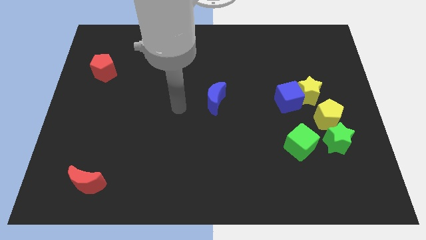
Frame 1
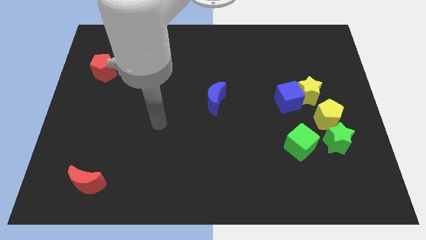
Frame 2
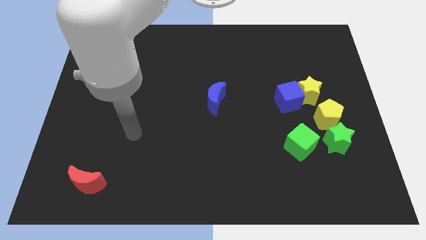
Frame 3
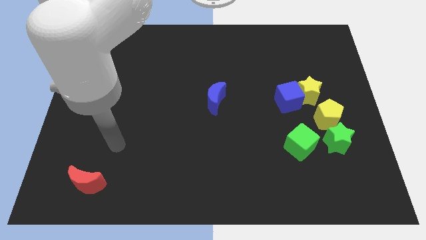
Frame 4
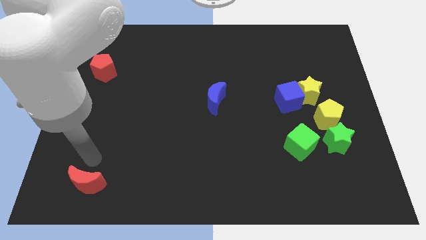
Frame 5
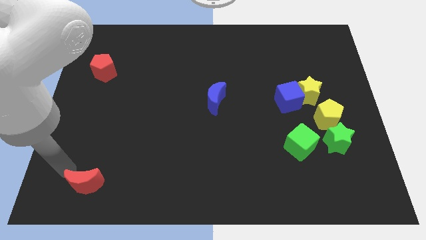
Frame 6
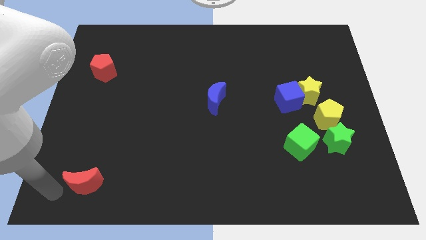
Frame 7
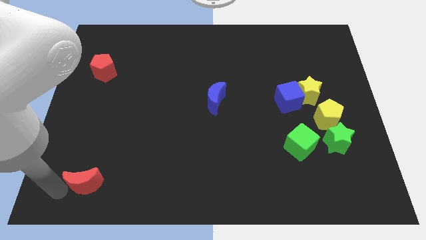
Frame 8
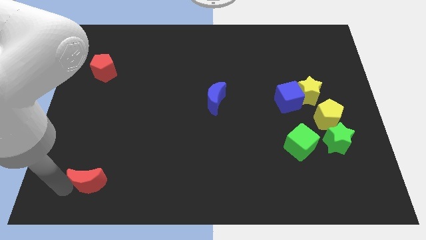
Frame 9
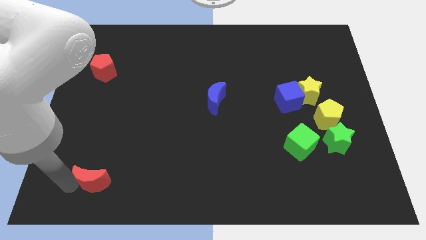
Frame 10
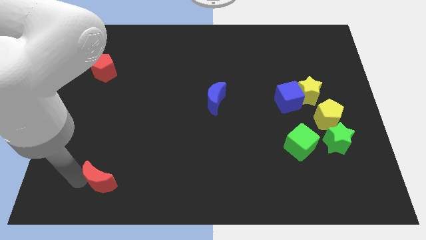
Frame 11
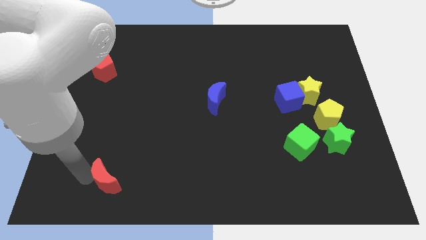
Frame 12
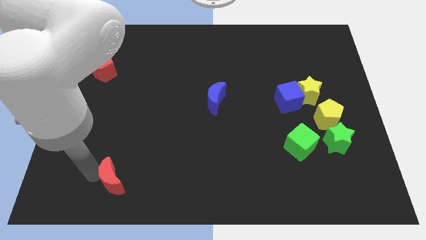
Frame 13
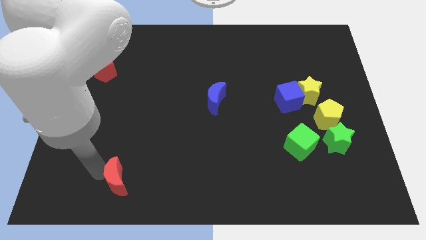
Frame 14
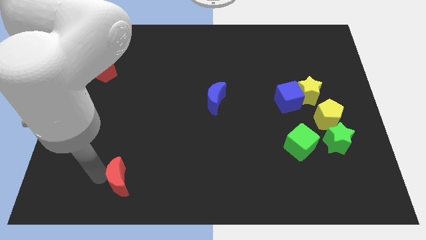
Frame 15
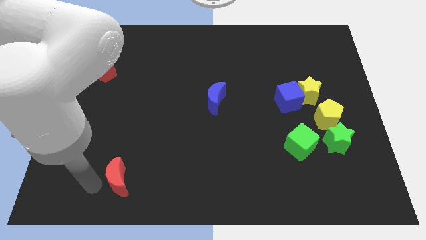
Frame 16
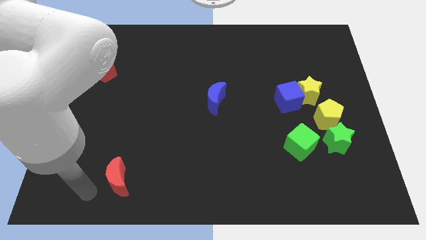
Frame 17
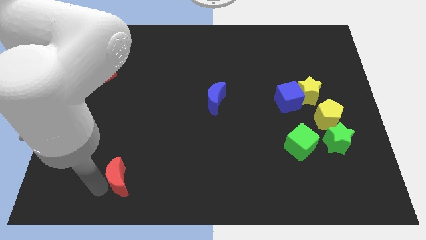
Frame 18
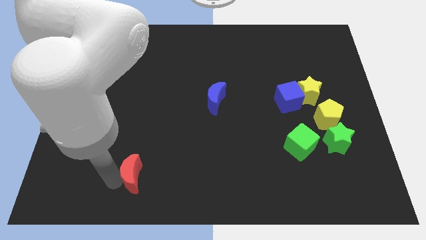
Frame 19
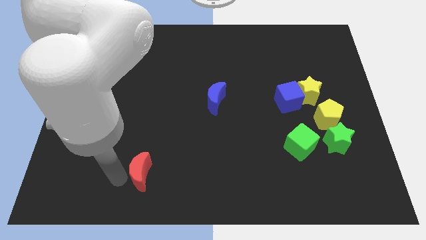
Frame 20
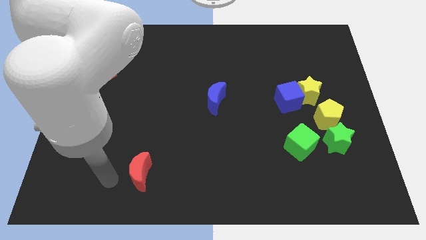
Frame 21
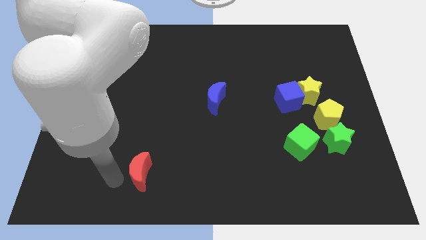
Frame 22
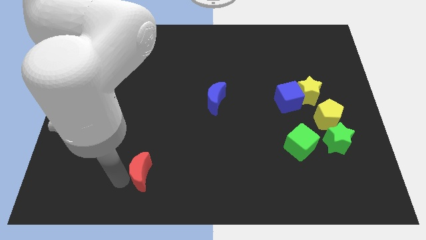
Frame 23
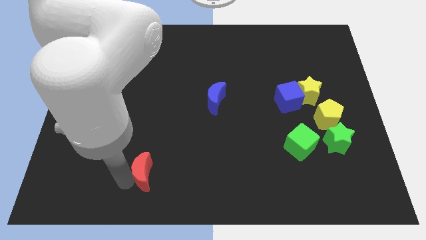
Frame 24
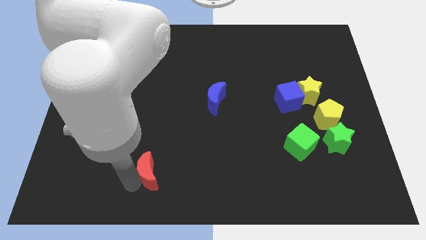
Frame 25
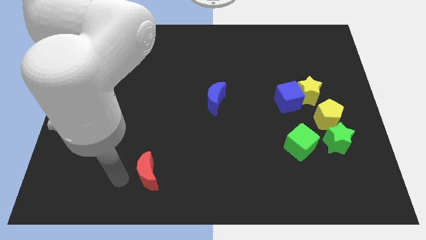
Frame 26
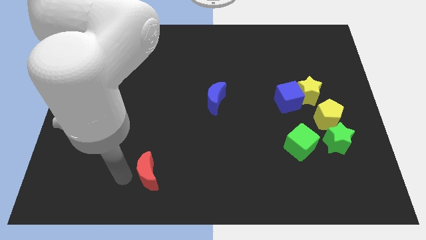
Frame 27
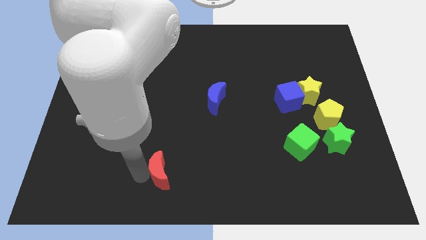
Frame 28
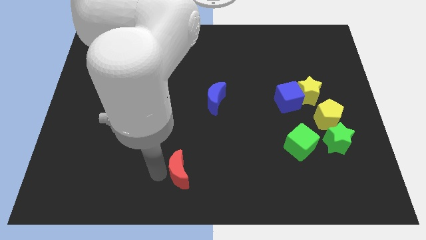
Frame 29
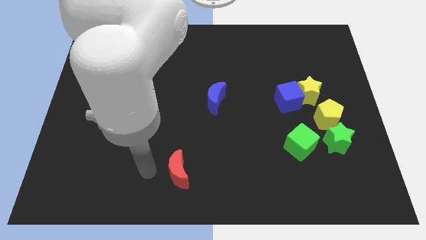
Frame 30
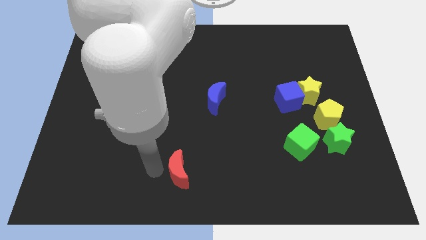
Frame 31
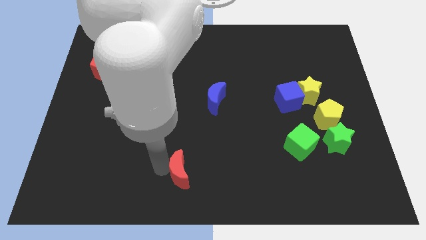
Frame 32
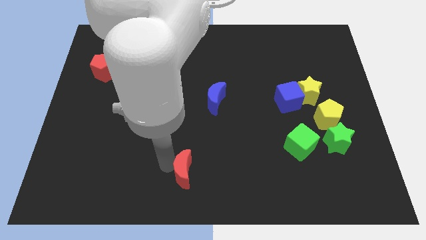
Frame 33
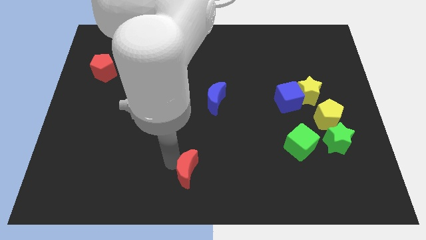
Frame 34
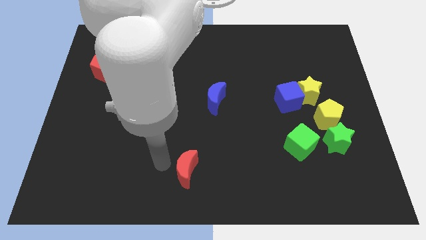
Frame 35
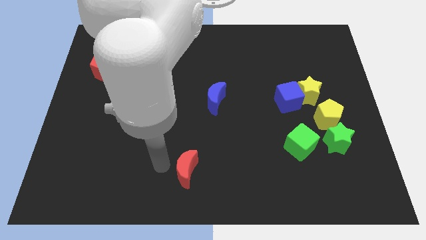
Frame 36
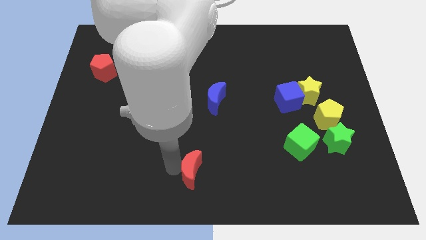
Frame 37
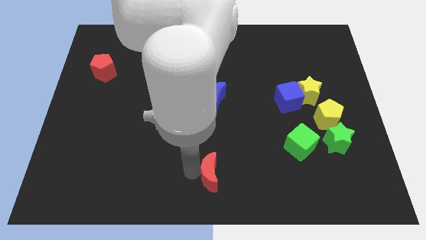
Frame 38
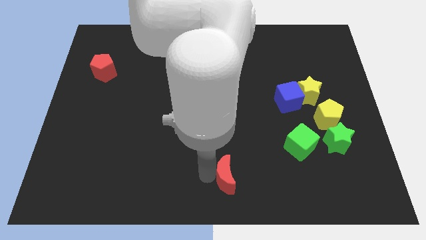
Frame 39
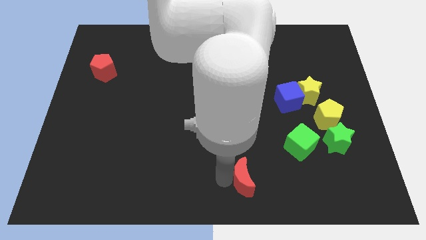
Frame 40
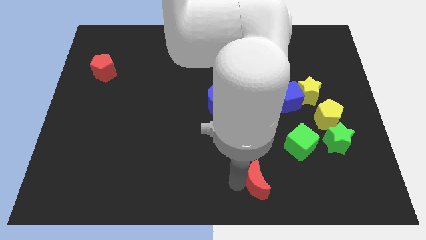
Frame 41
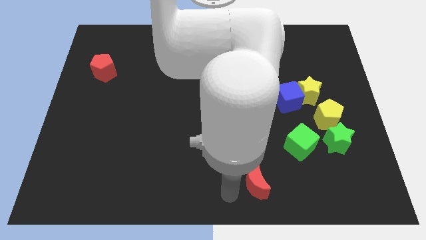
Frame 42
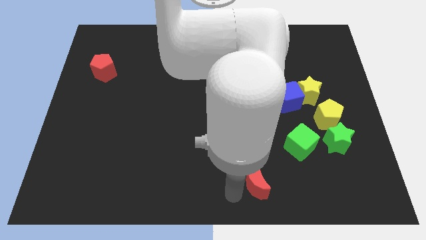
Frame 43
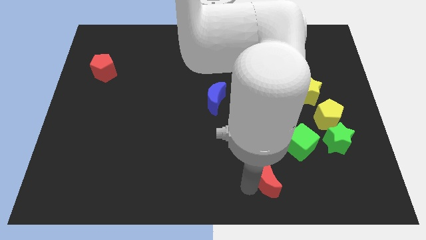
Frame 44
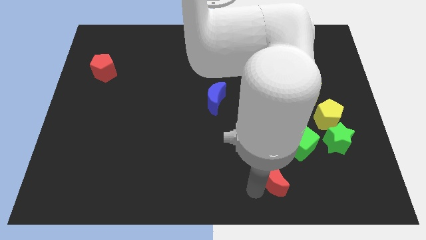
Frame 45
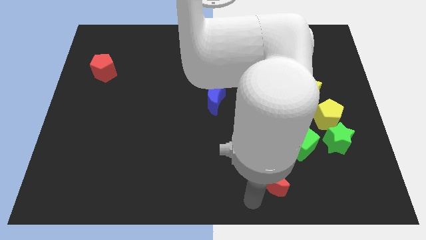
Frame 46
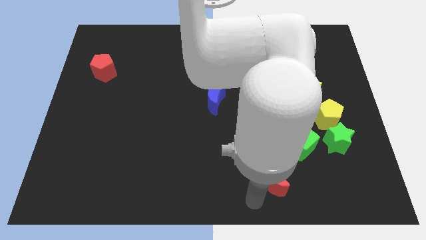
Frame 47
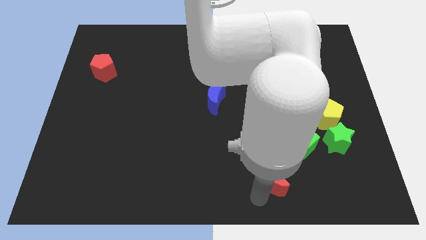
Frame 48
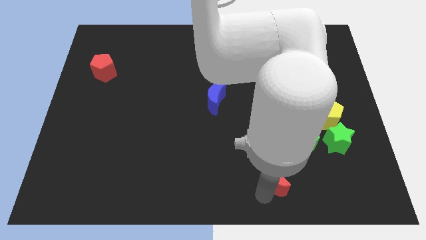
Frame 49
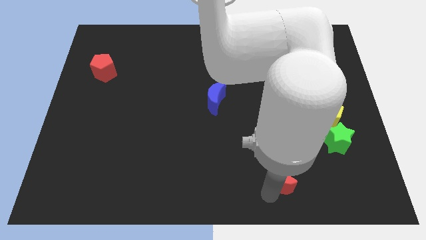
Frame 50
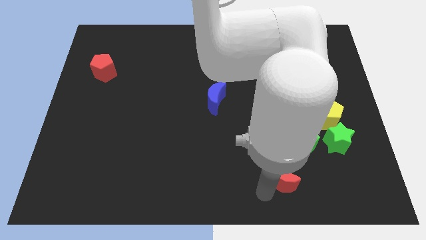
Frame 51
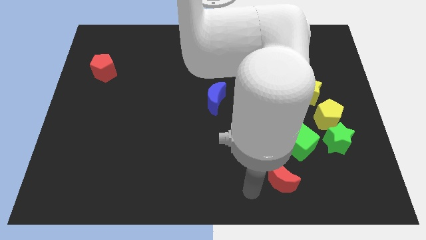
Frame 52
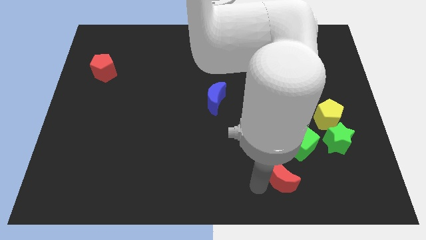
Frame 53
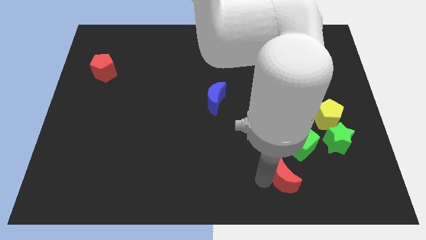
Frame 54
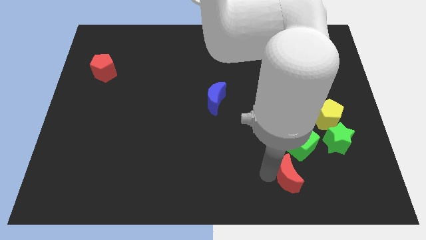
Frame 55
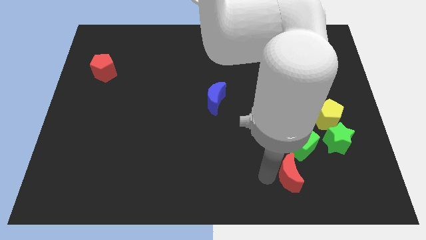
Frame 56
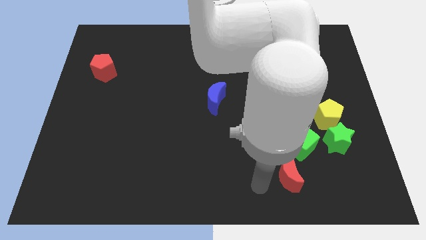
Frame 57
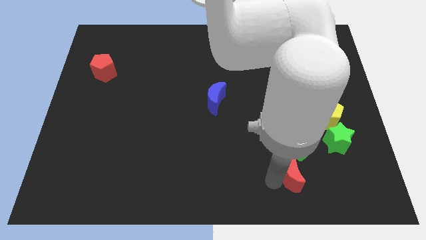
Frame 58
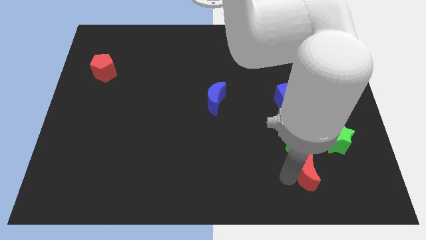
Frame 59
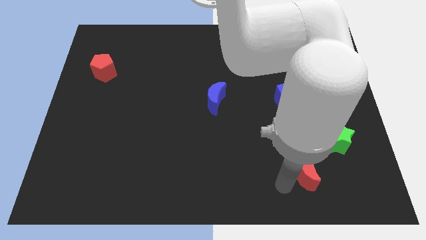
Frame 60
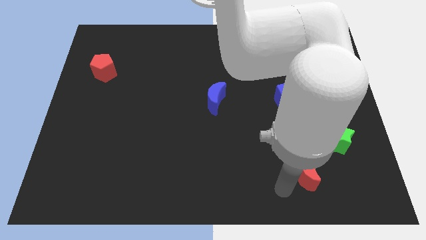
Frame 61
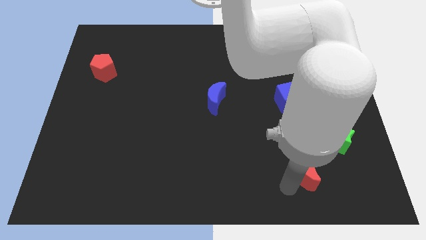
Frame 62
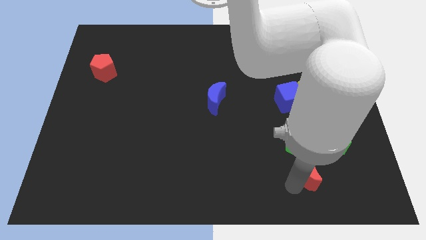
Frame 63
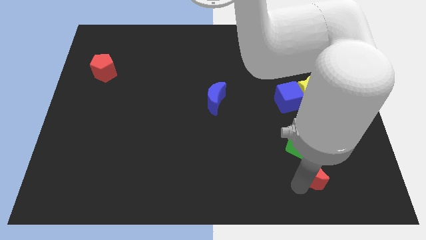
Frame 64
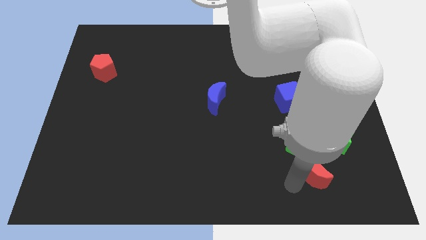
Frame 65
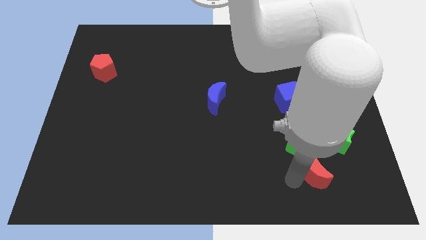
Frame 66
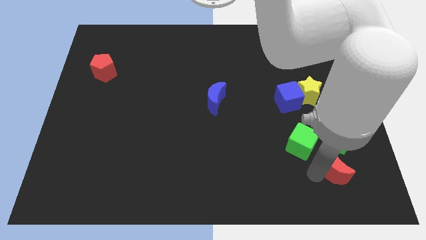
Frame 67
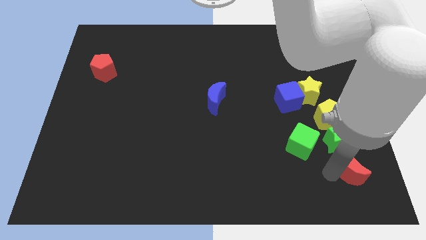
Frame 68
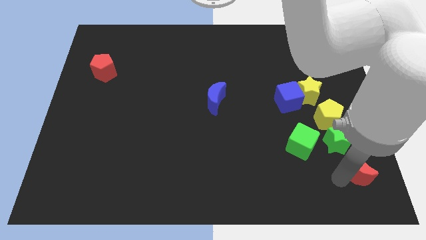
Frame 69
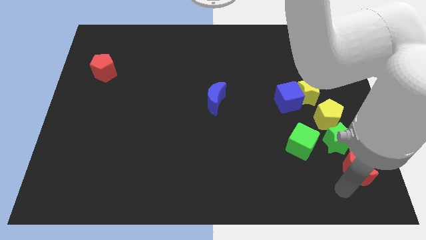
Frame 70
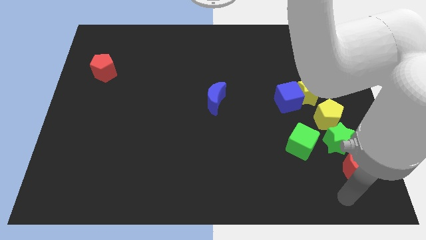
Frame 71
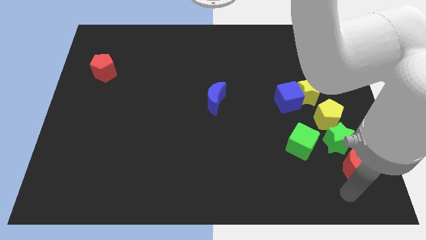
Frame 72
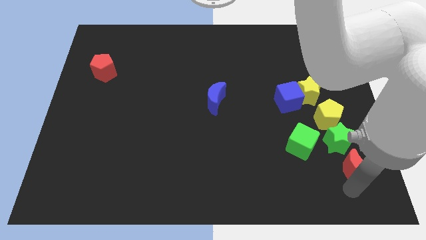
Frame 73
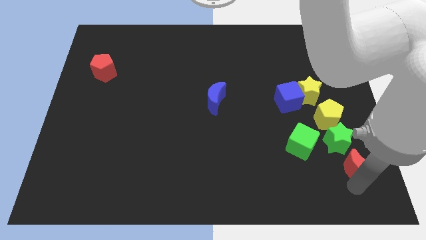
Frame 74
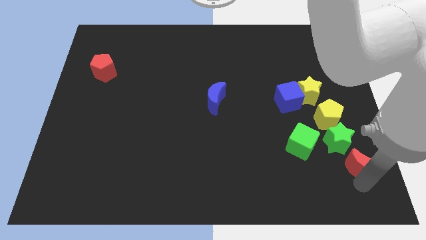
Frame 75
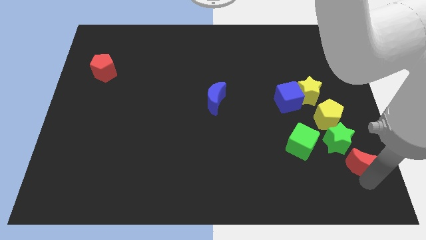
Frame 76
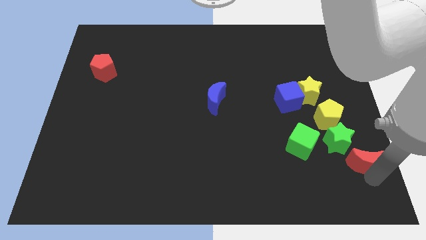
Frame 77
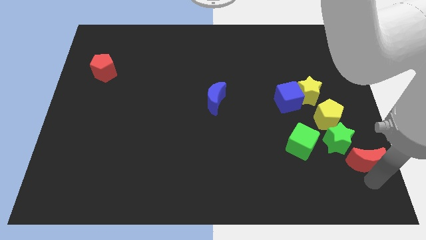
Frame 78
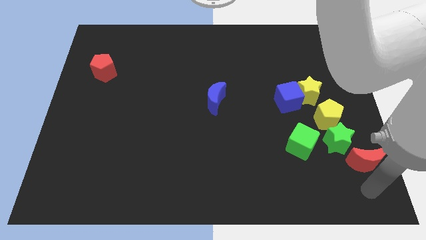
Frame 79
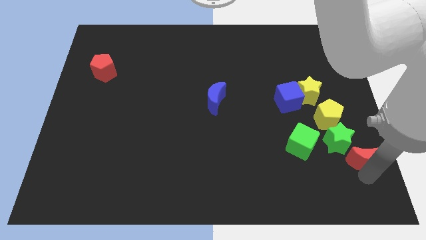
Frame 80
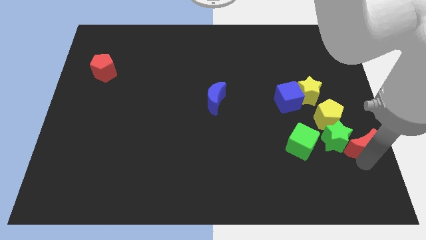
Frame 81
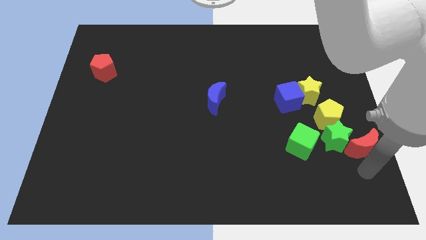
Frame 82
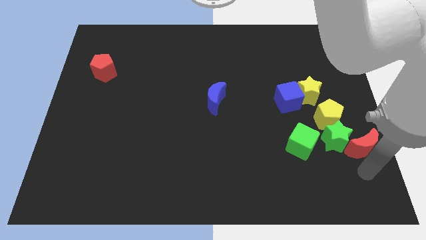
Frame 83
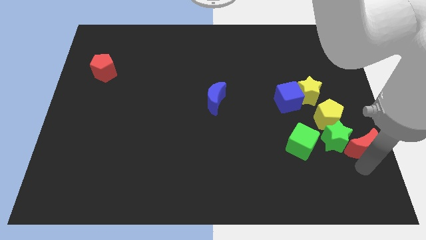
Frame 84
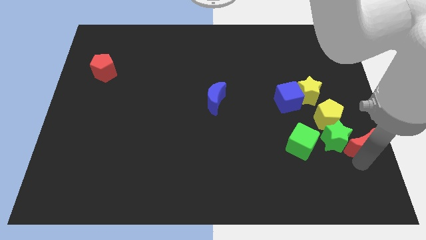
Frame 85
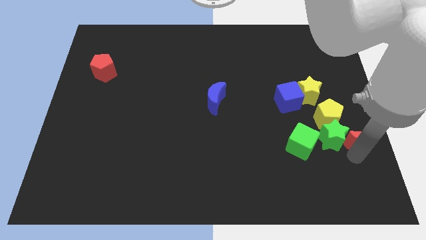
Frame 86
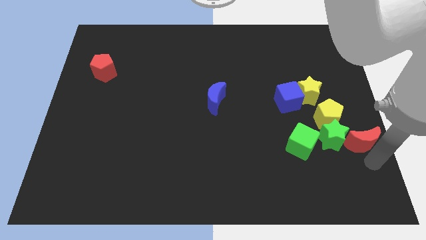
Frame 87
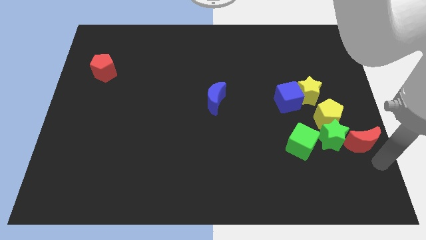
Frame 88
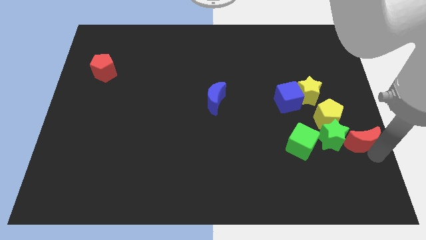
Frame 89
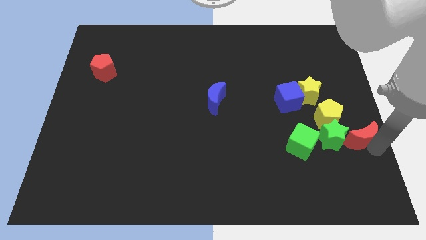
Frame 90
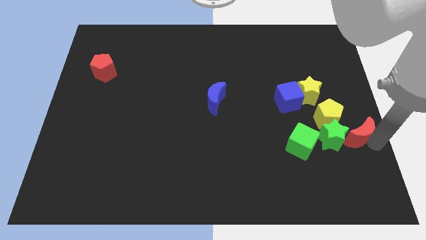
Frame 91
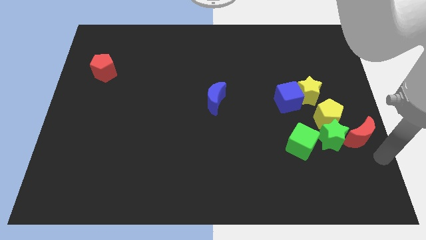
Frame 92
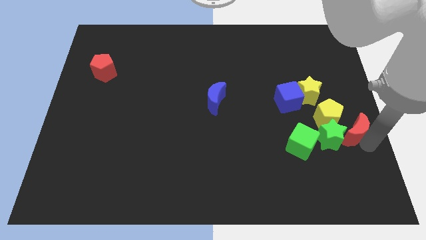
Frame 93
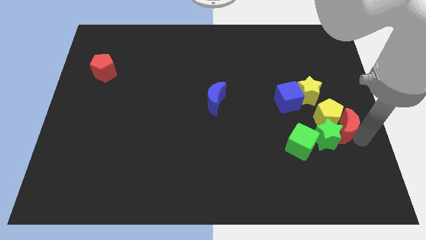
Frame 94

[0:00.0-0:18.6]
slide the red moon to the bottom right of the yellow star
